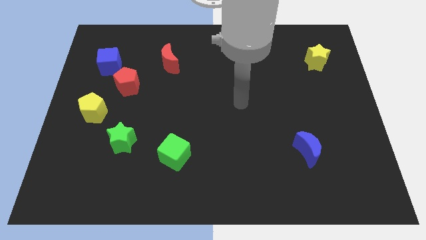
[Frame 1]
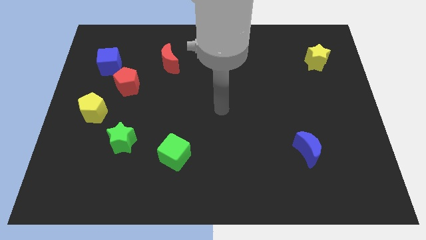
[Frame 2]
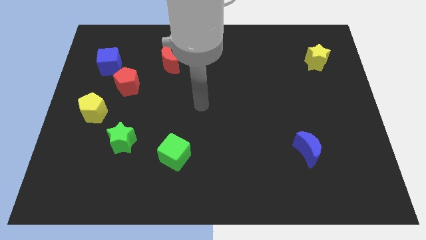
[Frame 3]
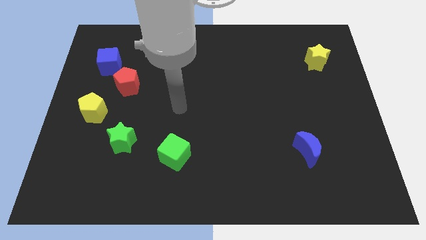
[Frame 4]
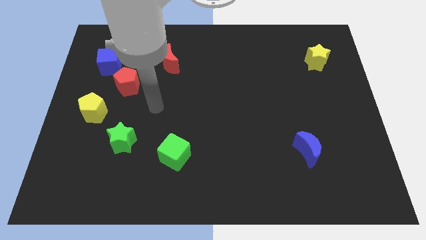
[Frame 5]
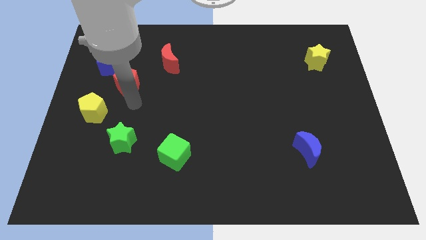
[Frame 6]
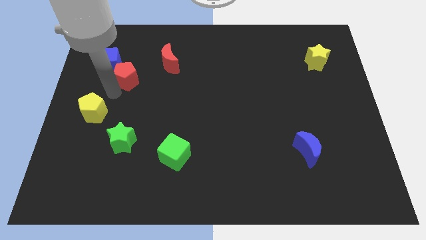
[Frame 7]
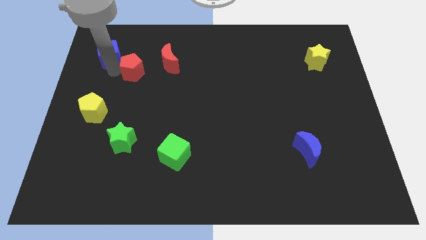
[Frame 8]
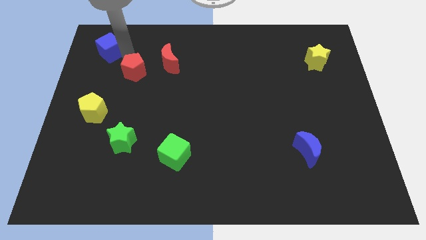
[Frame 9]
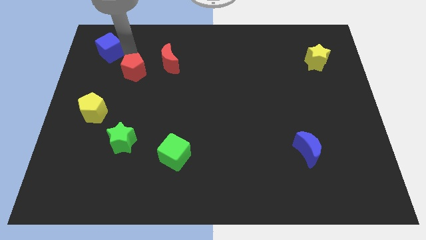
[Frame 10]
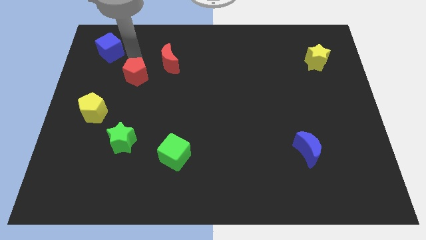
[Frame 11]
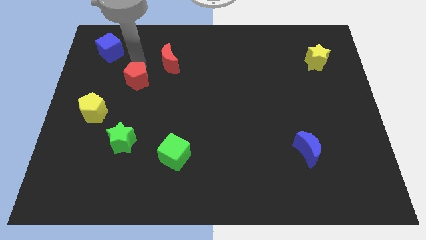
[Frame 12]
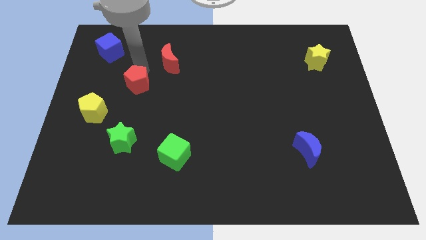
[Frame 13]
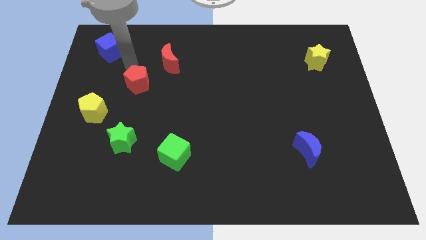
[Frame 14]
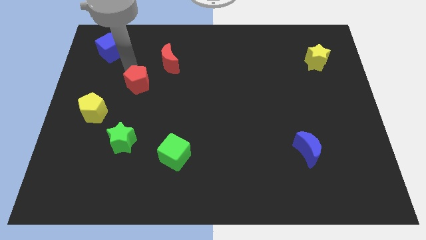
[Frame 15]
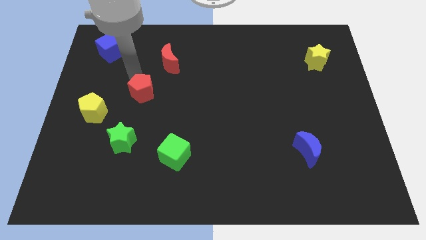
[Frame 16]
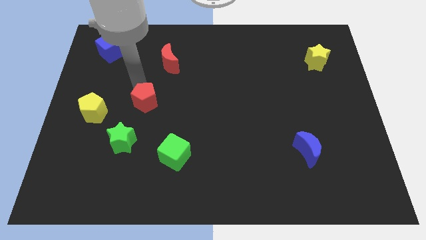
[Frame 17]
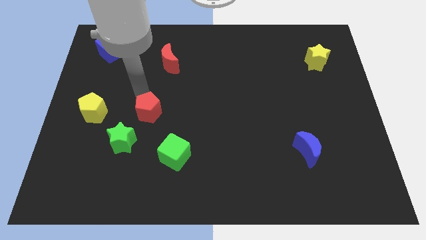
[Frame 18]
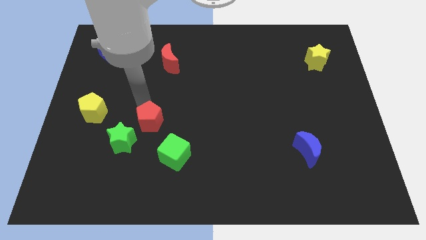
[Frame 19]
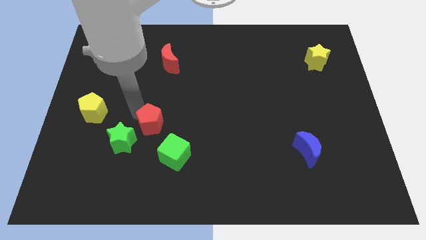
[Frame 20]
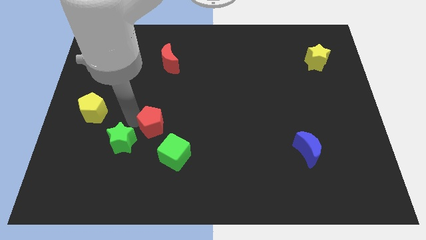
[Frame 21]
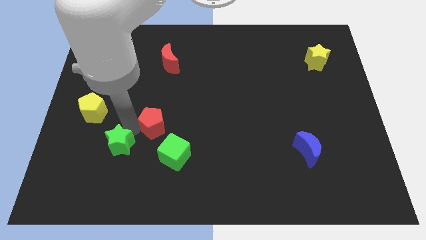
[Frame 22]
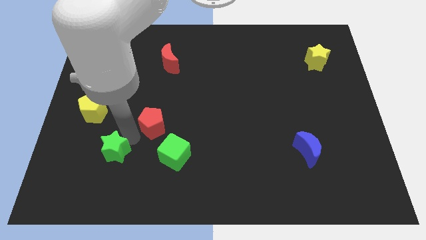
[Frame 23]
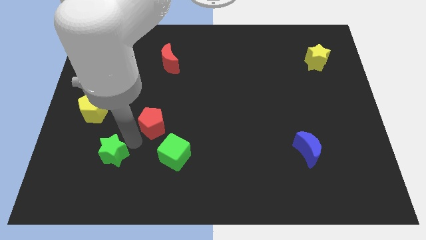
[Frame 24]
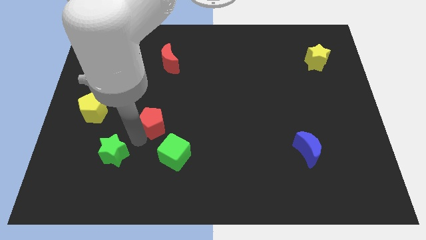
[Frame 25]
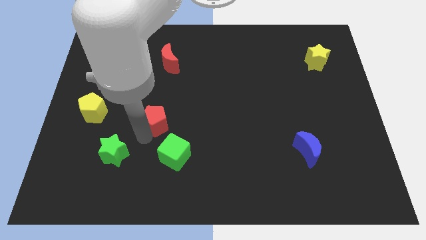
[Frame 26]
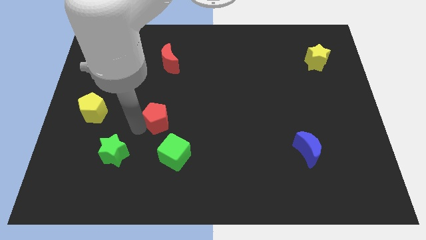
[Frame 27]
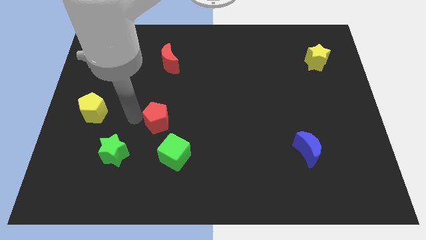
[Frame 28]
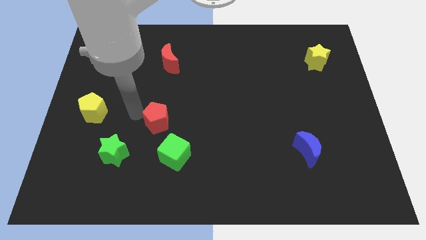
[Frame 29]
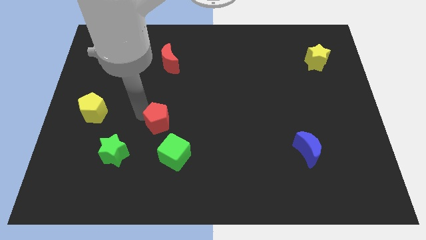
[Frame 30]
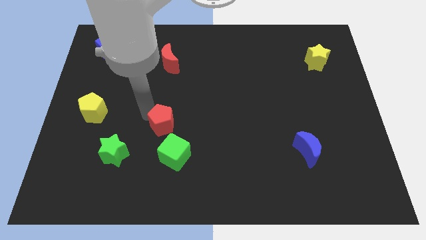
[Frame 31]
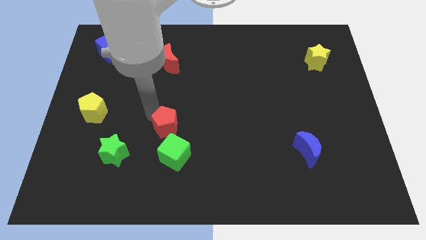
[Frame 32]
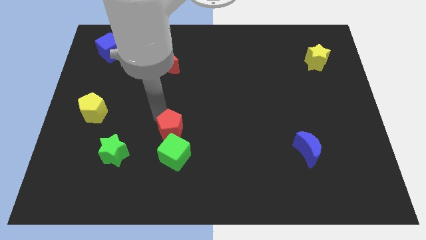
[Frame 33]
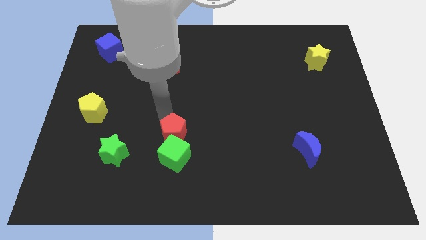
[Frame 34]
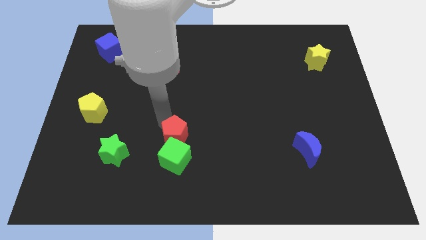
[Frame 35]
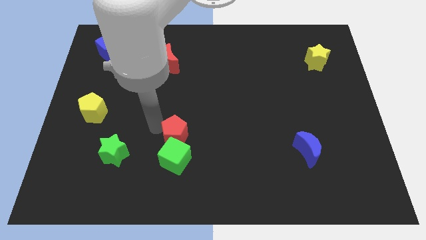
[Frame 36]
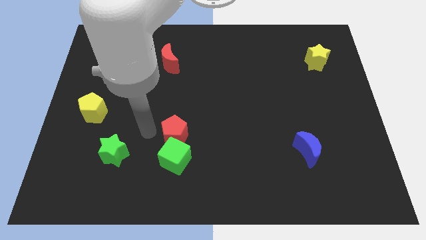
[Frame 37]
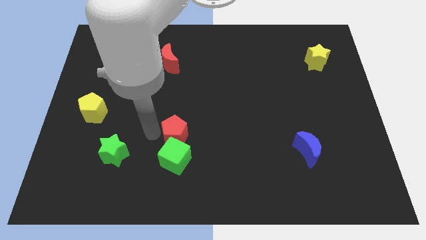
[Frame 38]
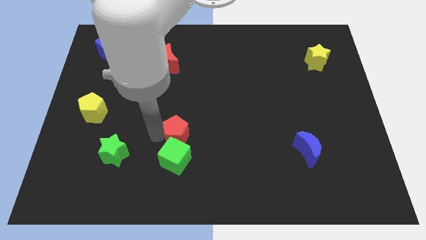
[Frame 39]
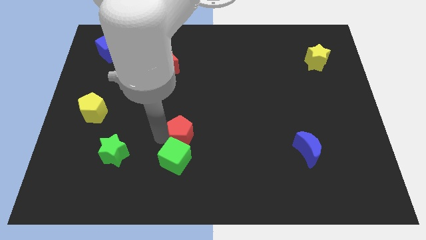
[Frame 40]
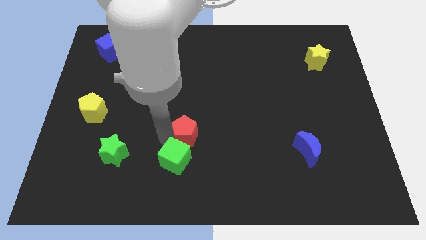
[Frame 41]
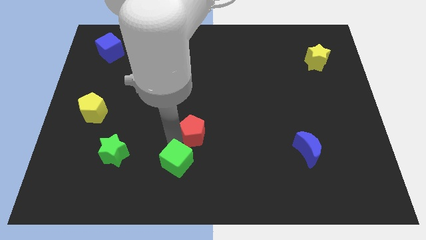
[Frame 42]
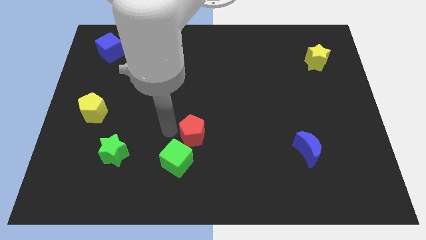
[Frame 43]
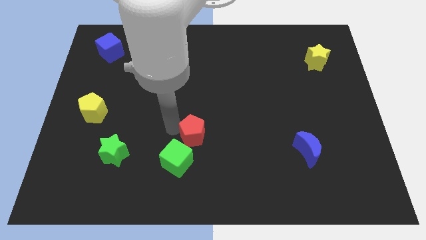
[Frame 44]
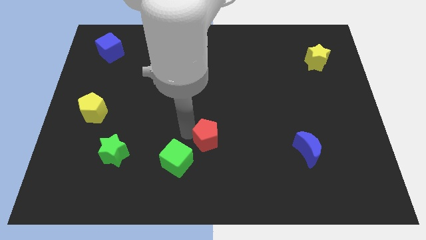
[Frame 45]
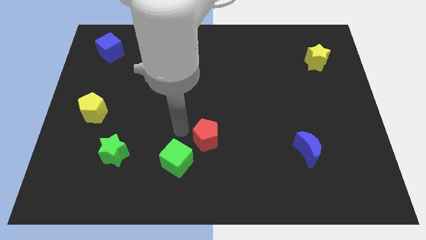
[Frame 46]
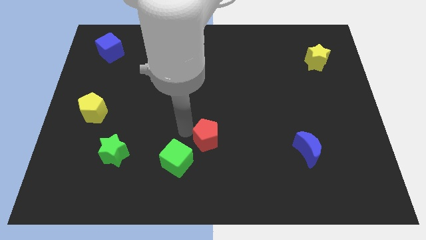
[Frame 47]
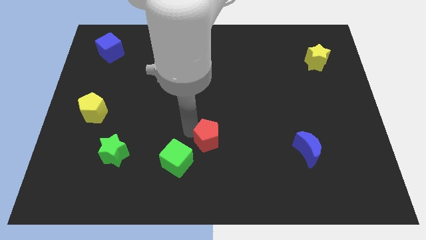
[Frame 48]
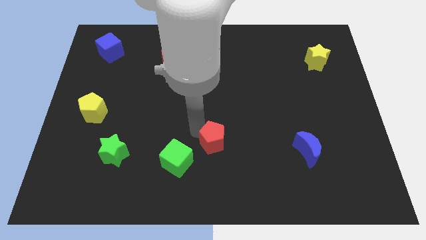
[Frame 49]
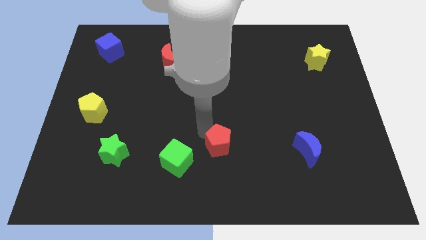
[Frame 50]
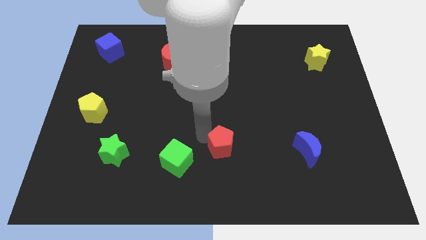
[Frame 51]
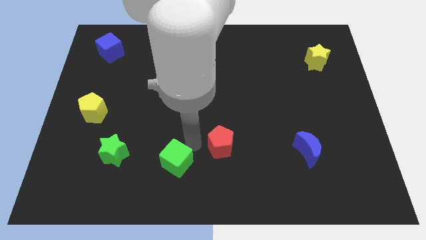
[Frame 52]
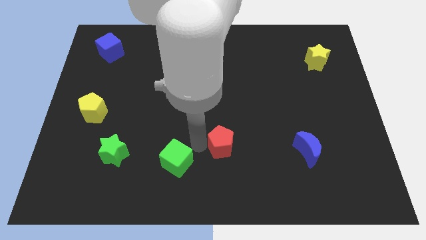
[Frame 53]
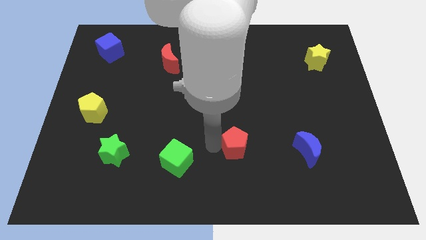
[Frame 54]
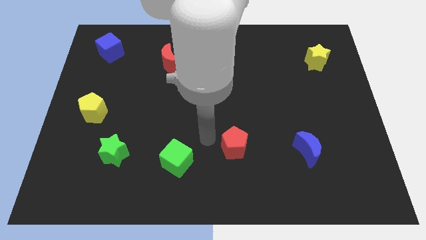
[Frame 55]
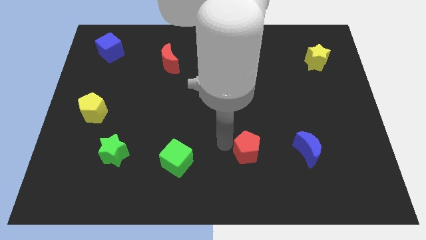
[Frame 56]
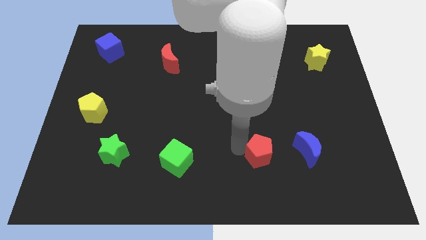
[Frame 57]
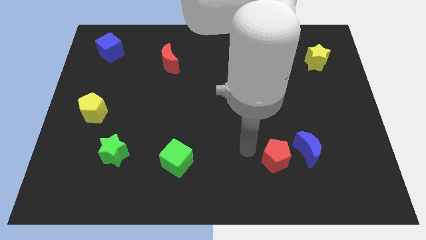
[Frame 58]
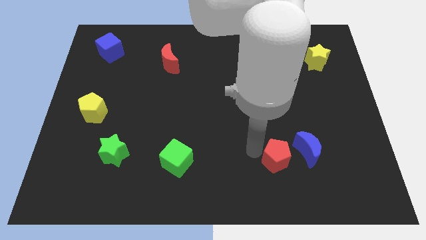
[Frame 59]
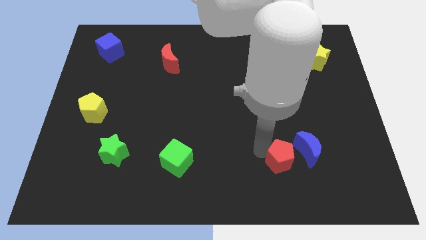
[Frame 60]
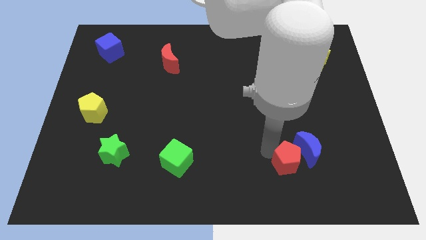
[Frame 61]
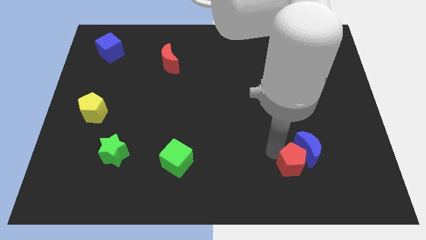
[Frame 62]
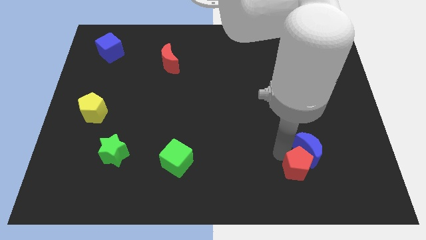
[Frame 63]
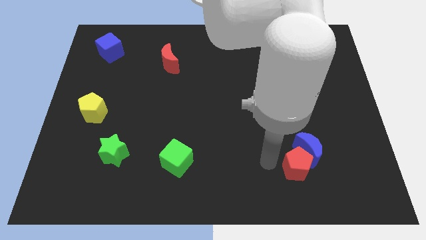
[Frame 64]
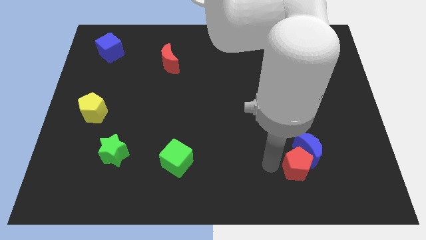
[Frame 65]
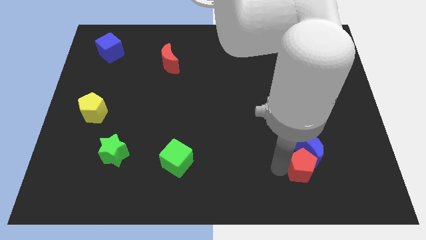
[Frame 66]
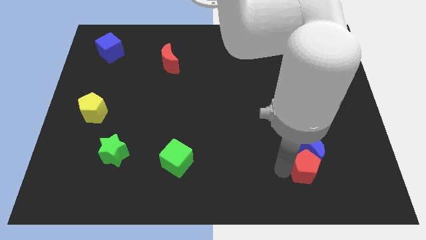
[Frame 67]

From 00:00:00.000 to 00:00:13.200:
put the red pentagon to the bottom right side of the blue moon
